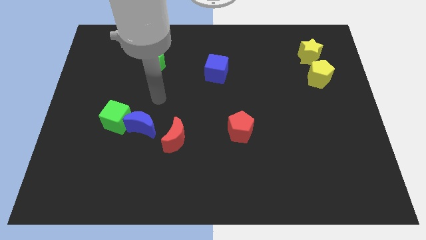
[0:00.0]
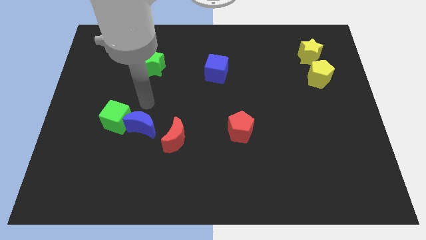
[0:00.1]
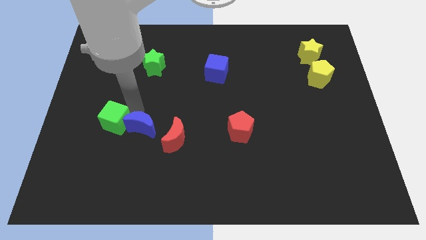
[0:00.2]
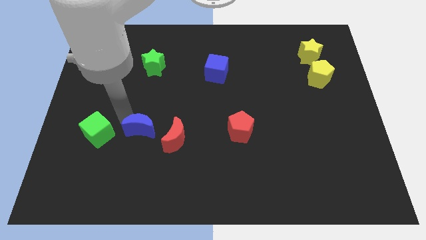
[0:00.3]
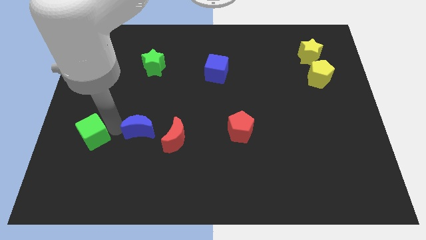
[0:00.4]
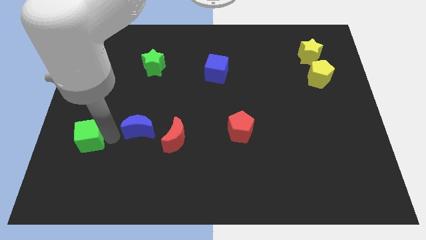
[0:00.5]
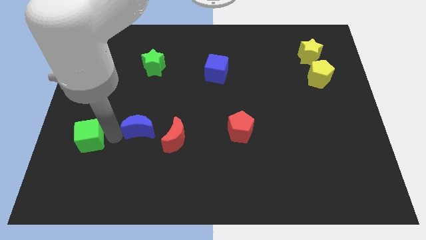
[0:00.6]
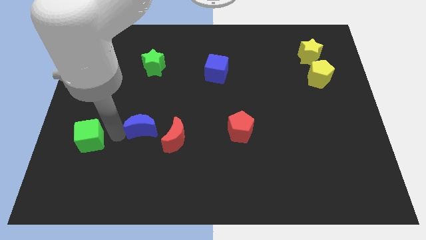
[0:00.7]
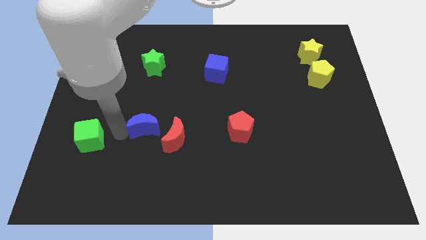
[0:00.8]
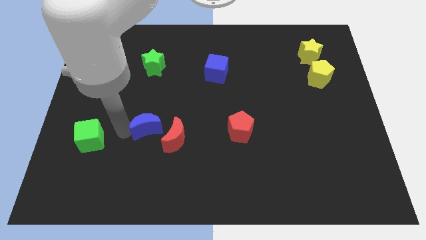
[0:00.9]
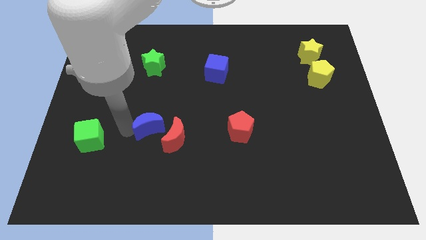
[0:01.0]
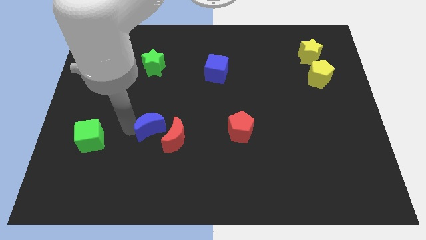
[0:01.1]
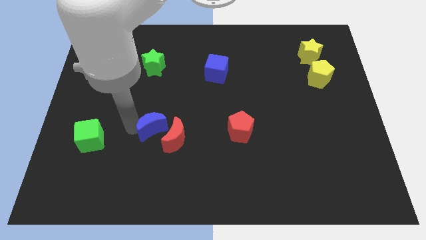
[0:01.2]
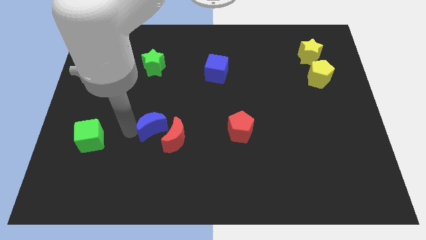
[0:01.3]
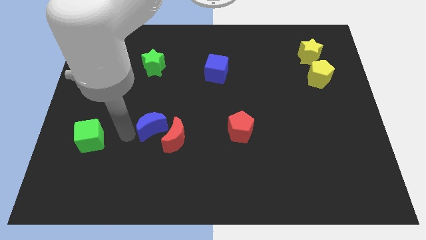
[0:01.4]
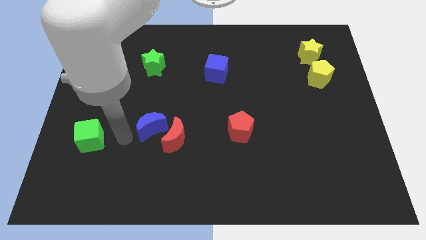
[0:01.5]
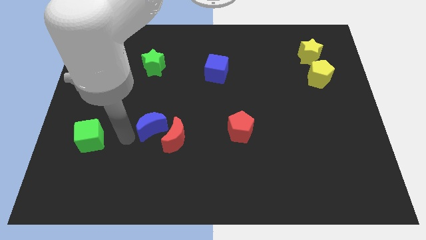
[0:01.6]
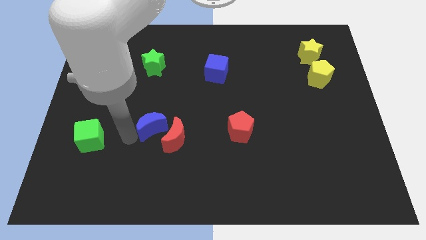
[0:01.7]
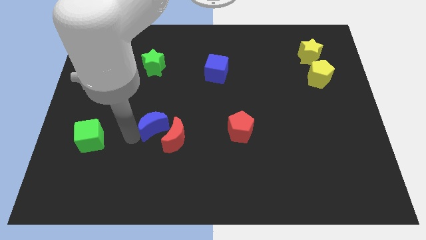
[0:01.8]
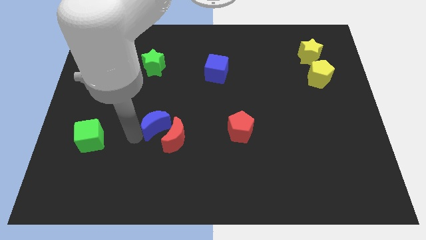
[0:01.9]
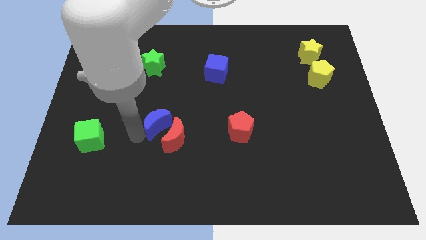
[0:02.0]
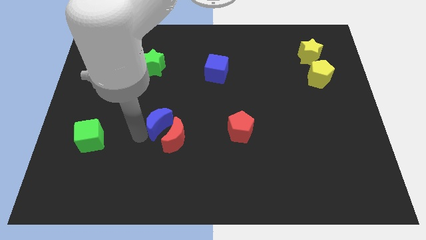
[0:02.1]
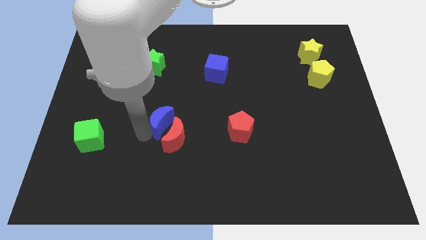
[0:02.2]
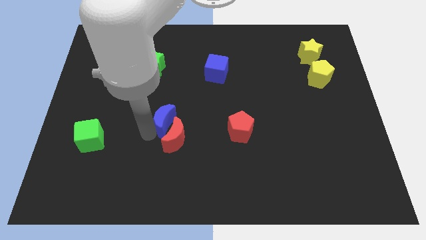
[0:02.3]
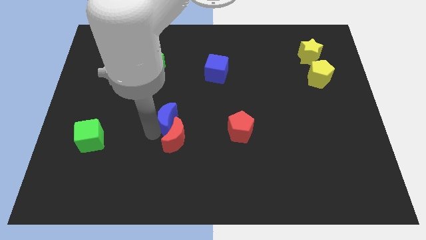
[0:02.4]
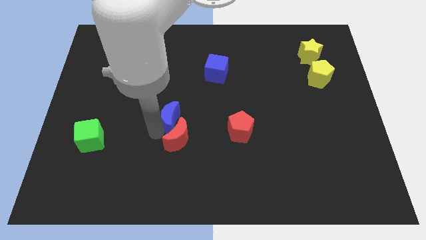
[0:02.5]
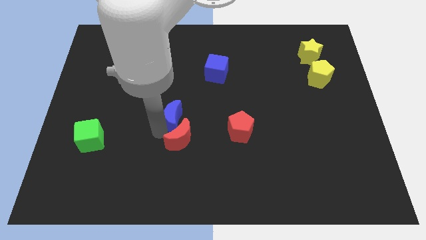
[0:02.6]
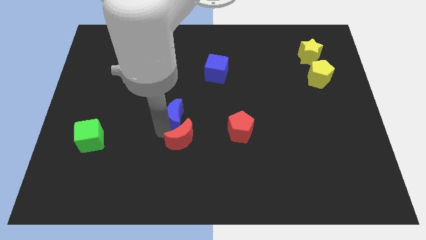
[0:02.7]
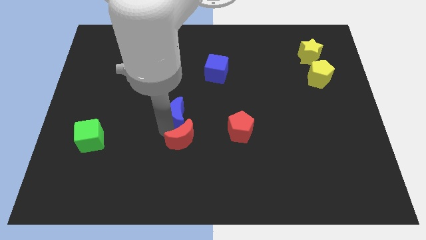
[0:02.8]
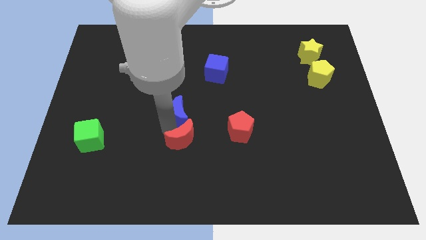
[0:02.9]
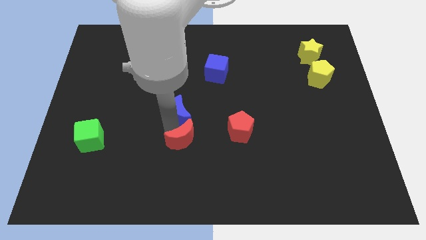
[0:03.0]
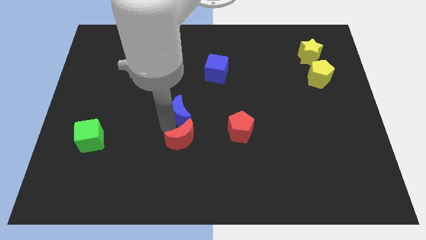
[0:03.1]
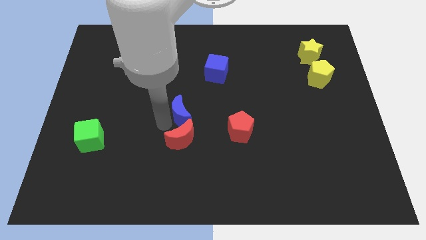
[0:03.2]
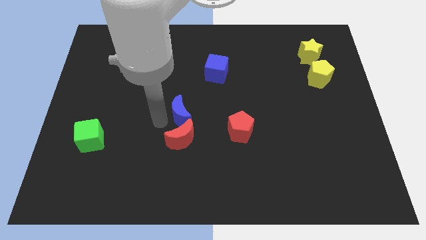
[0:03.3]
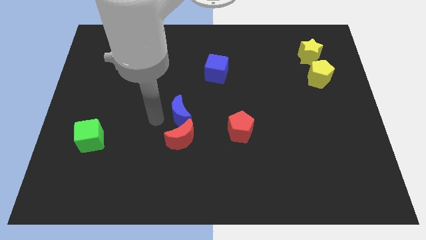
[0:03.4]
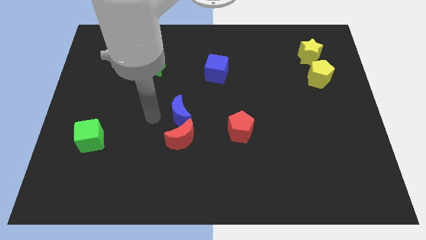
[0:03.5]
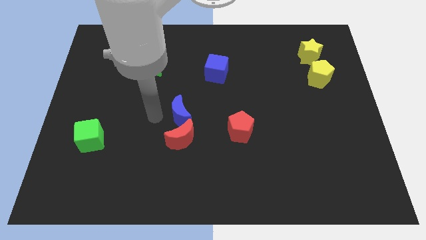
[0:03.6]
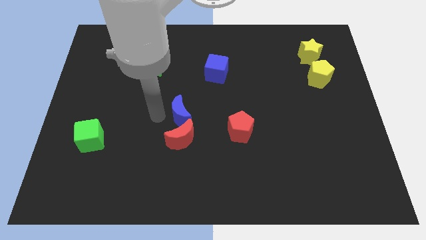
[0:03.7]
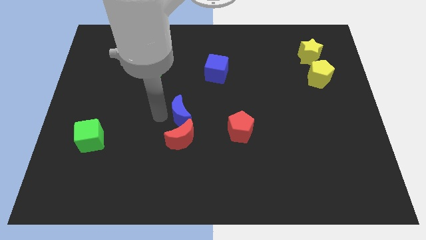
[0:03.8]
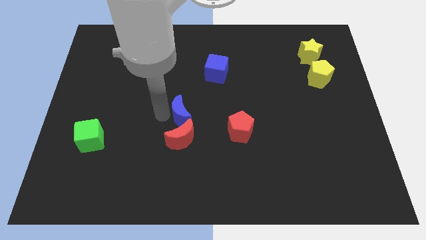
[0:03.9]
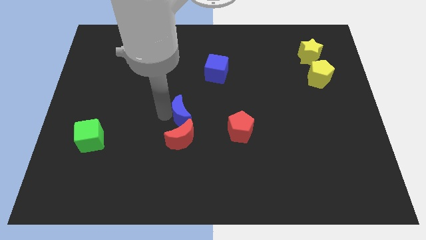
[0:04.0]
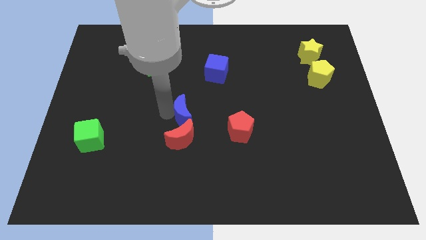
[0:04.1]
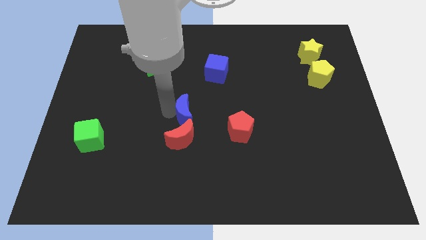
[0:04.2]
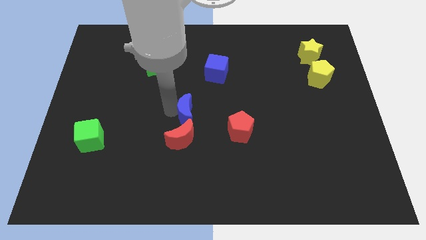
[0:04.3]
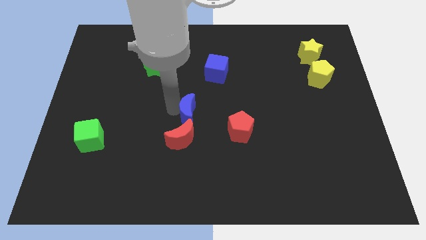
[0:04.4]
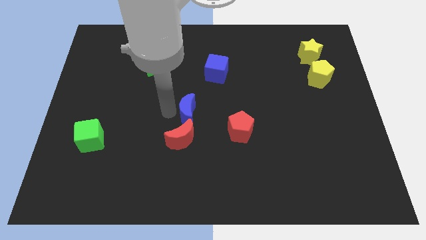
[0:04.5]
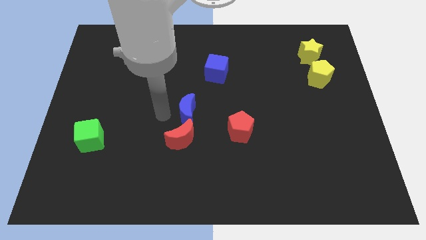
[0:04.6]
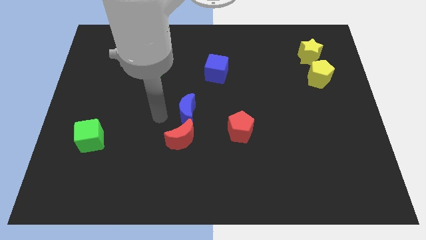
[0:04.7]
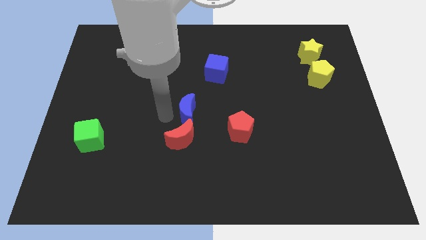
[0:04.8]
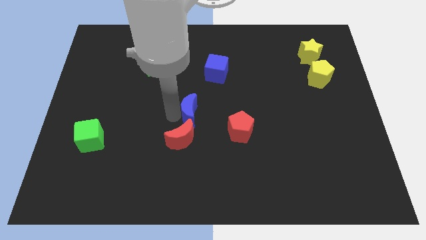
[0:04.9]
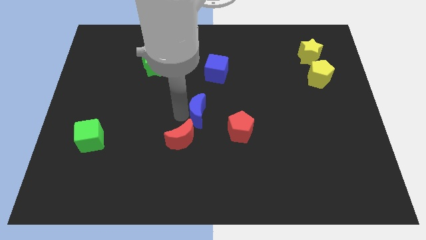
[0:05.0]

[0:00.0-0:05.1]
push the blue moon to the top left of the red pentagon

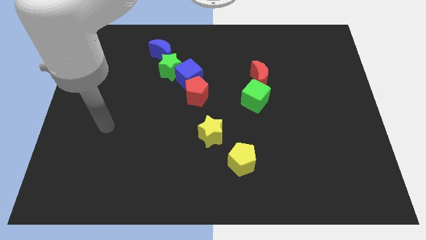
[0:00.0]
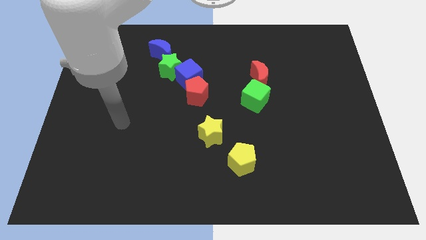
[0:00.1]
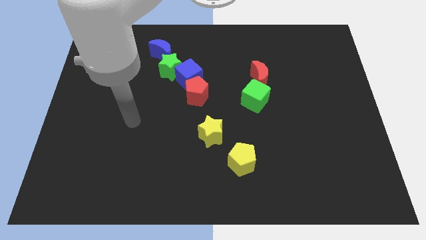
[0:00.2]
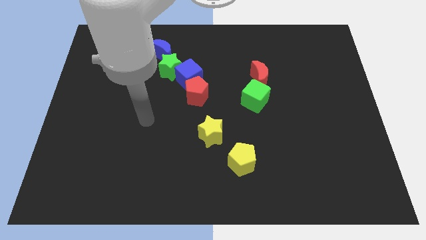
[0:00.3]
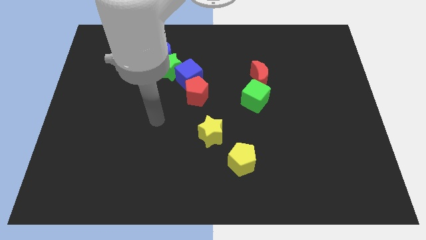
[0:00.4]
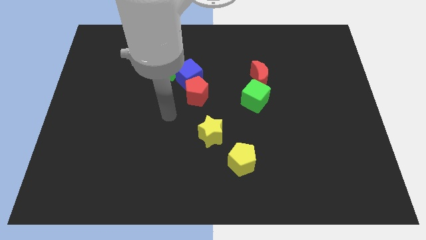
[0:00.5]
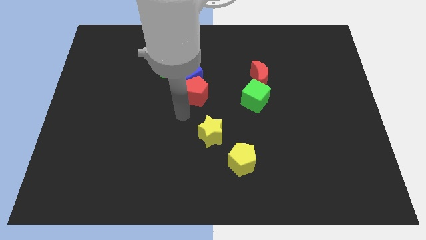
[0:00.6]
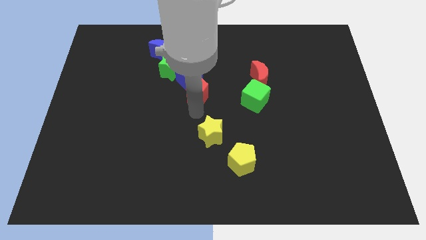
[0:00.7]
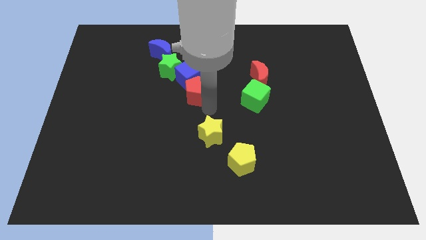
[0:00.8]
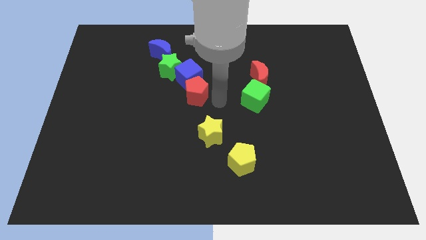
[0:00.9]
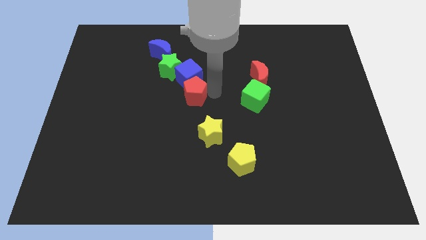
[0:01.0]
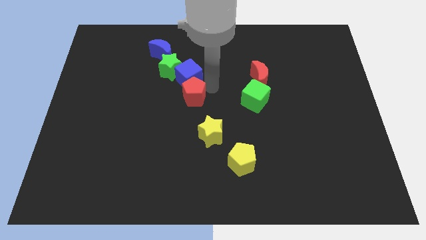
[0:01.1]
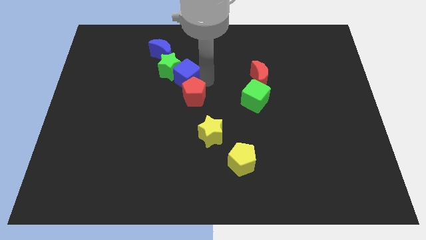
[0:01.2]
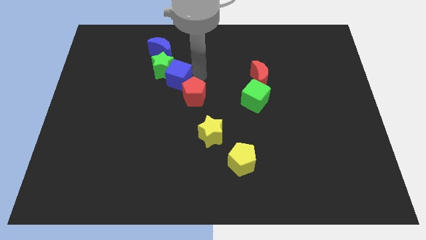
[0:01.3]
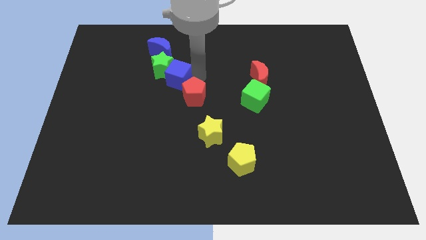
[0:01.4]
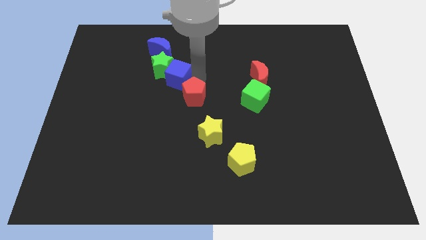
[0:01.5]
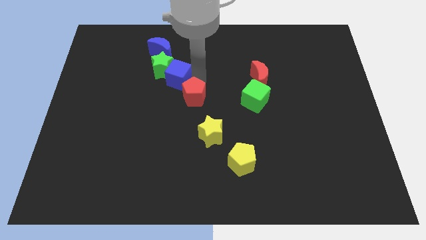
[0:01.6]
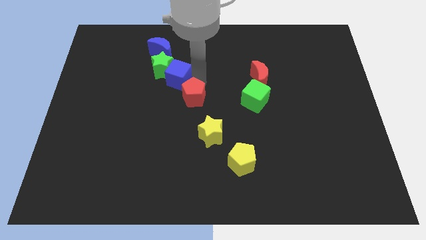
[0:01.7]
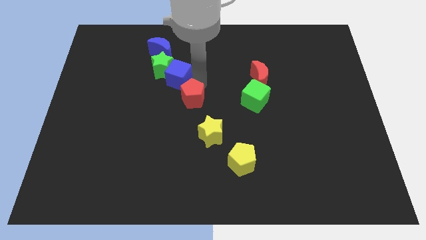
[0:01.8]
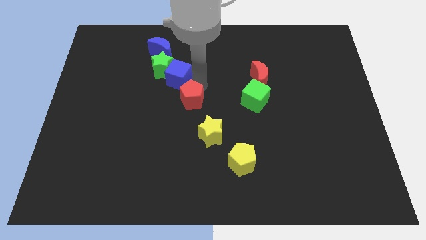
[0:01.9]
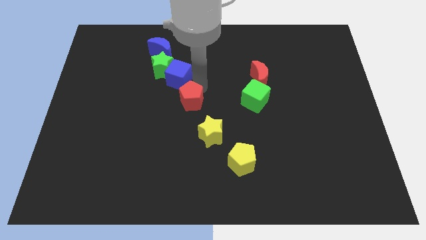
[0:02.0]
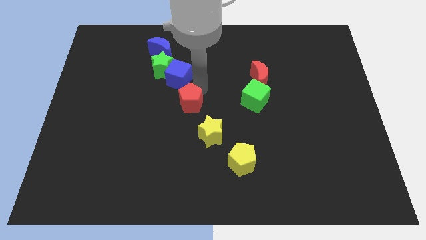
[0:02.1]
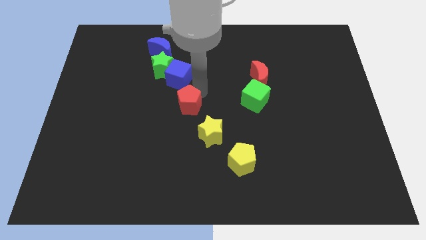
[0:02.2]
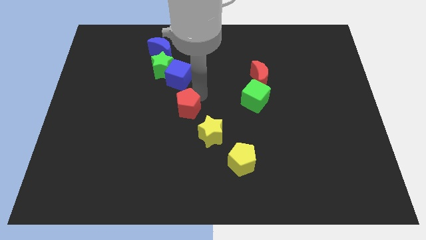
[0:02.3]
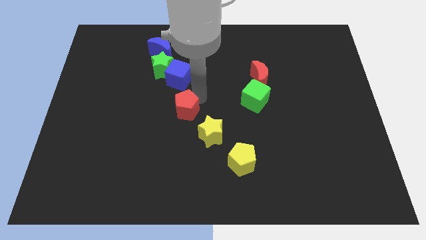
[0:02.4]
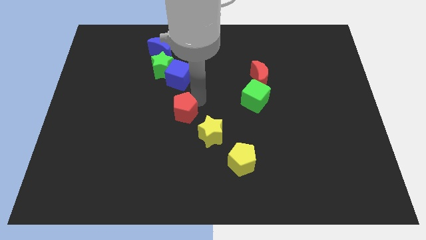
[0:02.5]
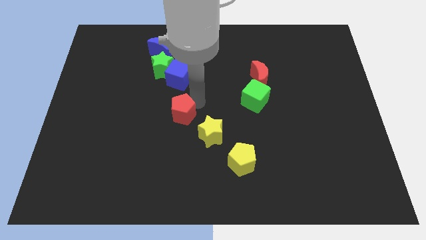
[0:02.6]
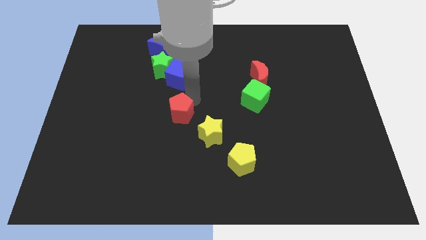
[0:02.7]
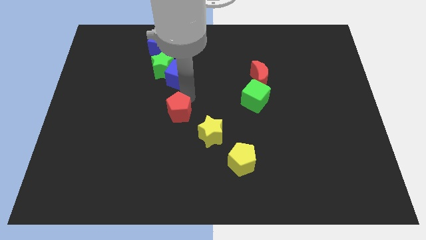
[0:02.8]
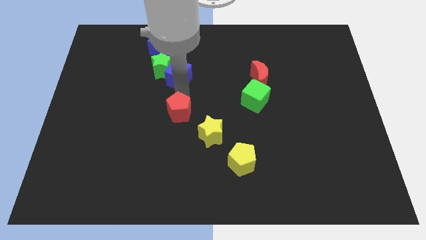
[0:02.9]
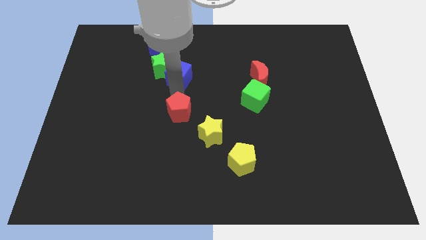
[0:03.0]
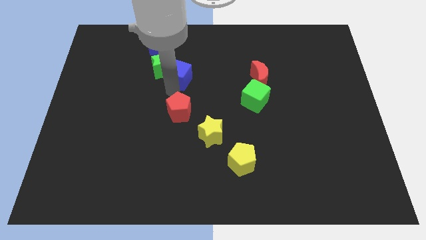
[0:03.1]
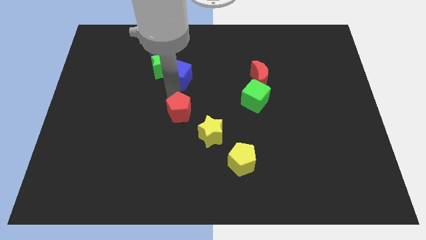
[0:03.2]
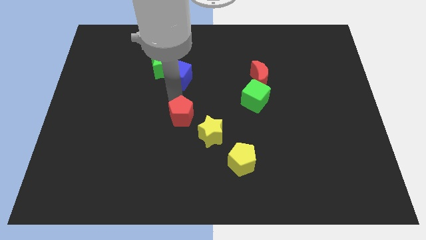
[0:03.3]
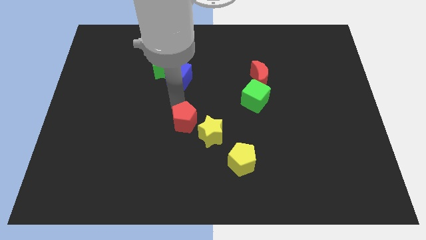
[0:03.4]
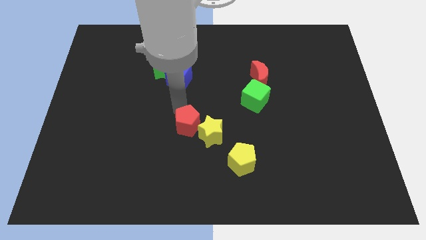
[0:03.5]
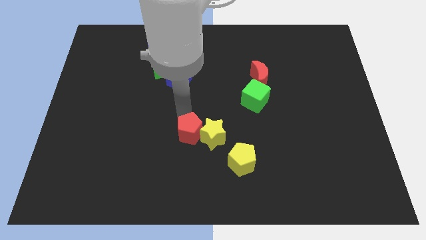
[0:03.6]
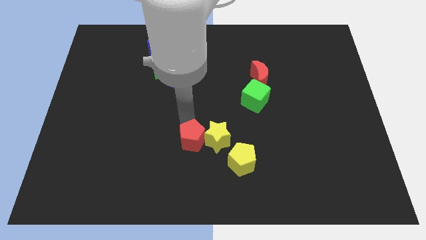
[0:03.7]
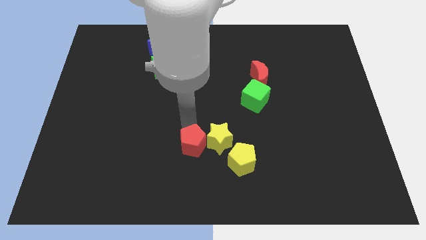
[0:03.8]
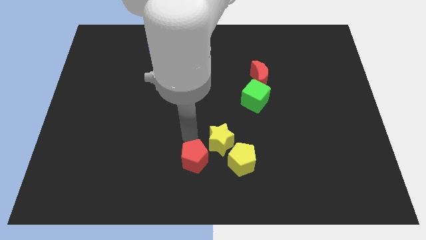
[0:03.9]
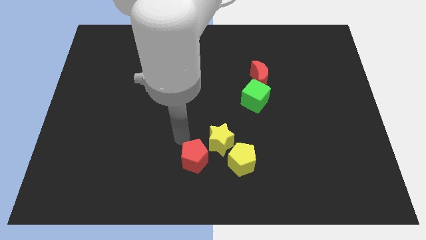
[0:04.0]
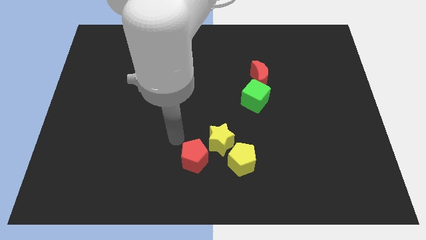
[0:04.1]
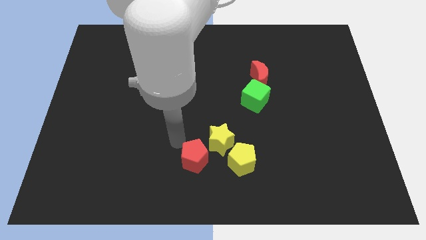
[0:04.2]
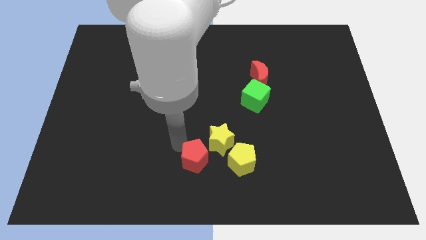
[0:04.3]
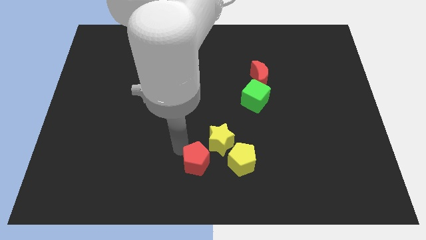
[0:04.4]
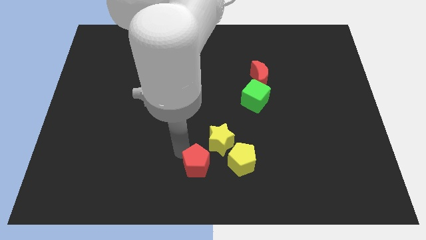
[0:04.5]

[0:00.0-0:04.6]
put the red pentagon to the bottom of the yellow star
